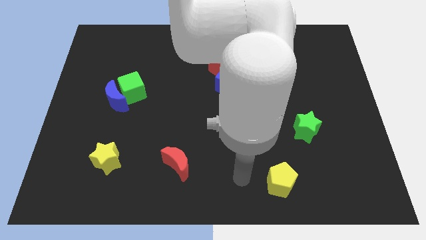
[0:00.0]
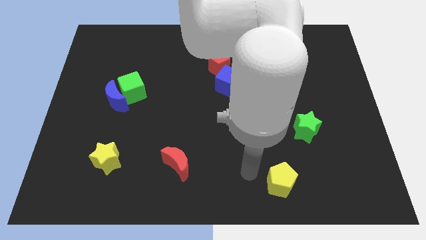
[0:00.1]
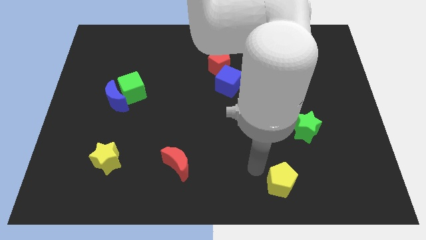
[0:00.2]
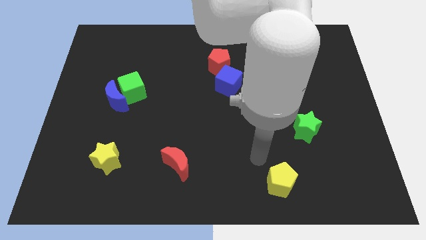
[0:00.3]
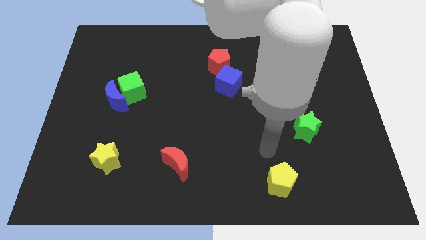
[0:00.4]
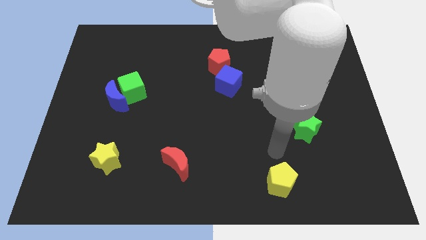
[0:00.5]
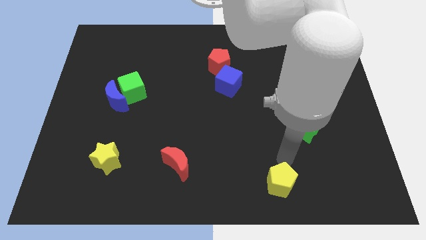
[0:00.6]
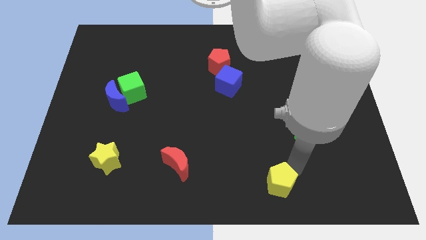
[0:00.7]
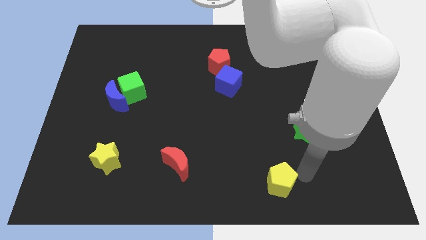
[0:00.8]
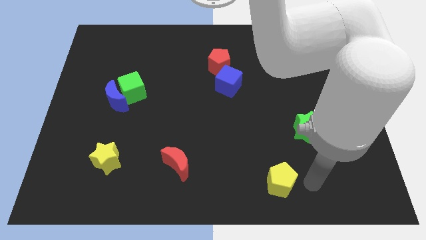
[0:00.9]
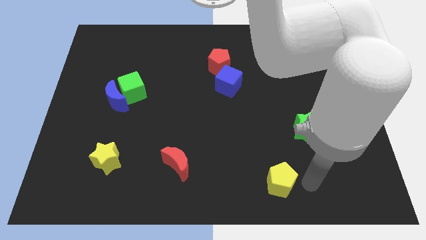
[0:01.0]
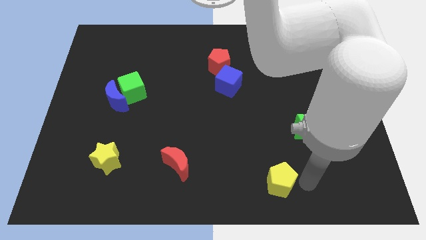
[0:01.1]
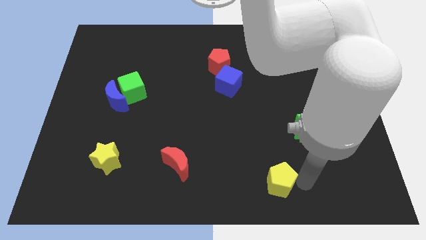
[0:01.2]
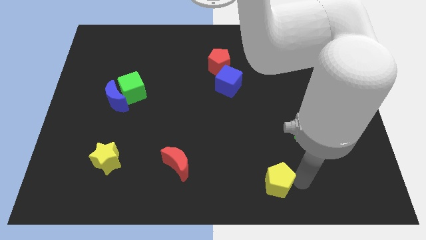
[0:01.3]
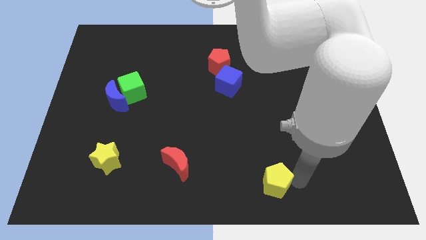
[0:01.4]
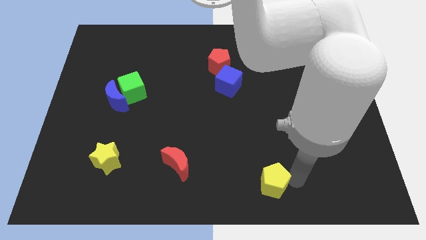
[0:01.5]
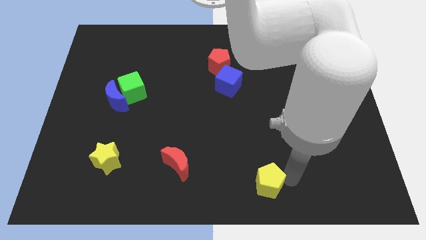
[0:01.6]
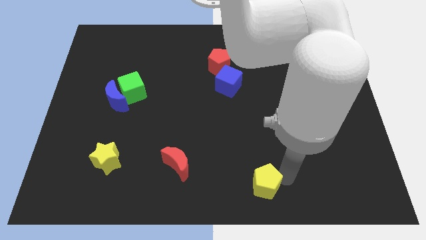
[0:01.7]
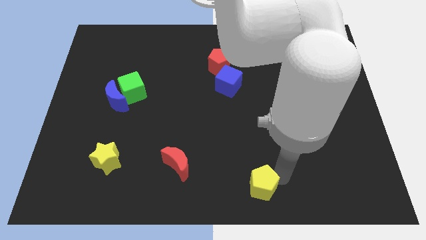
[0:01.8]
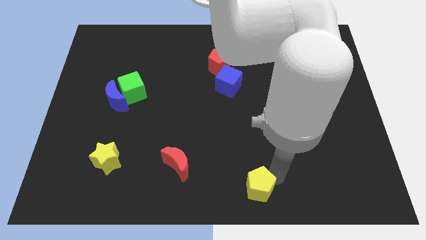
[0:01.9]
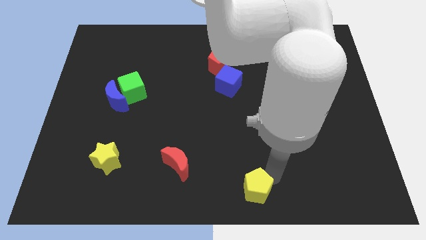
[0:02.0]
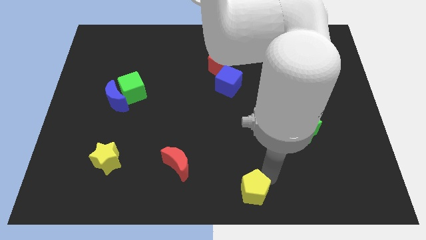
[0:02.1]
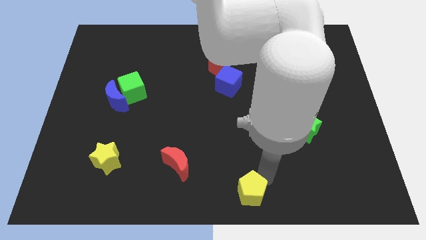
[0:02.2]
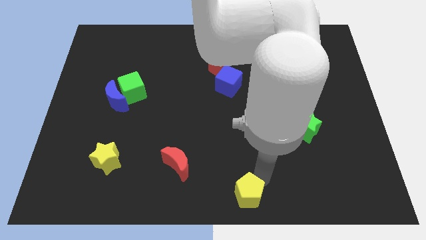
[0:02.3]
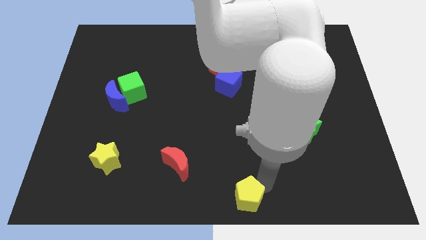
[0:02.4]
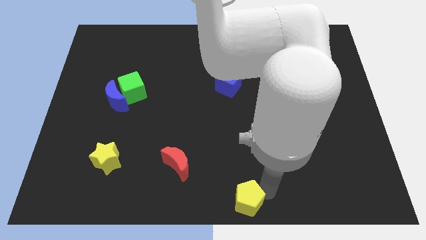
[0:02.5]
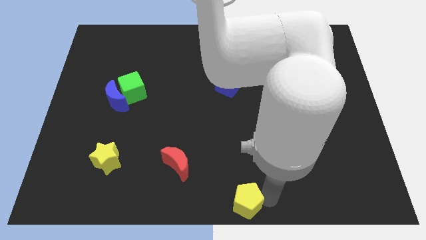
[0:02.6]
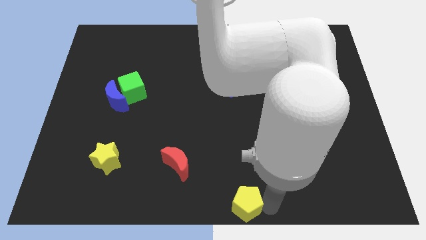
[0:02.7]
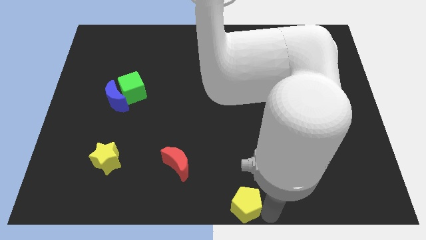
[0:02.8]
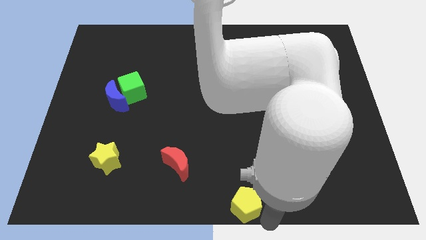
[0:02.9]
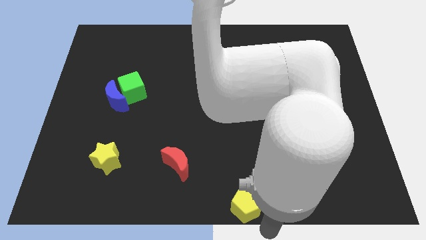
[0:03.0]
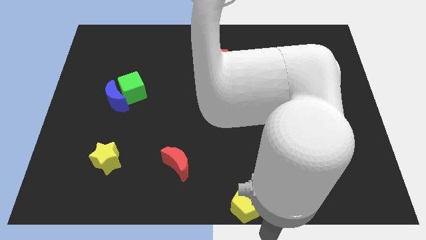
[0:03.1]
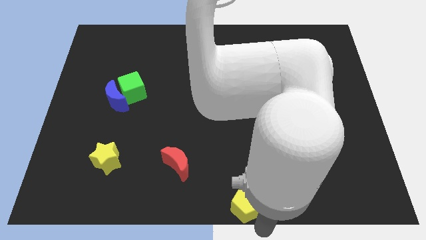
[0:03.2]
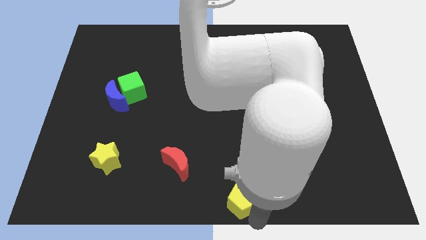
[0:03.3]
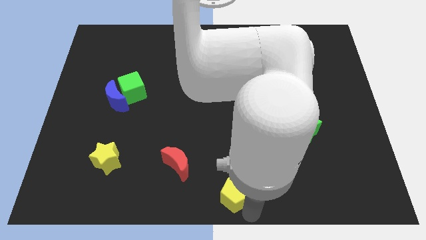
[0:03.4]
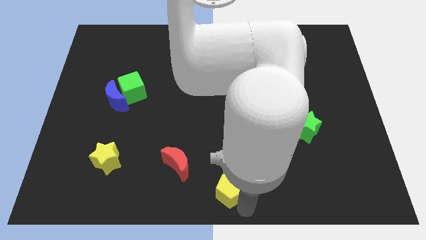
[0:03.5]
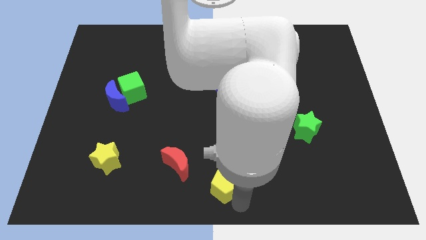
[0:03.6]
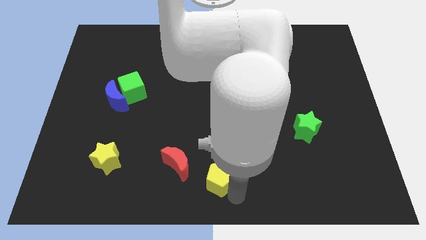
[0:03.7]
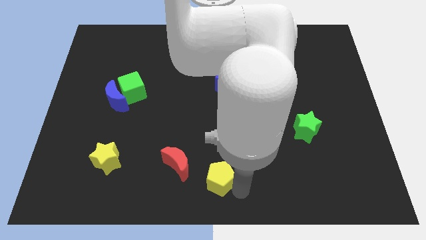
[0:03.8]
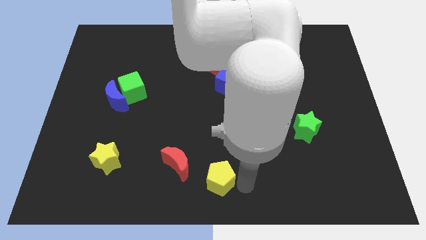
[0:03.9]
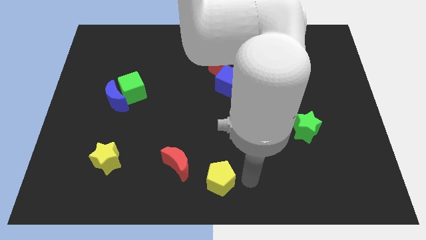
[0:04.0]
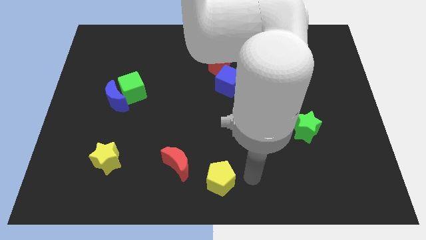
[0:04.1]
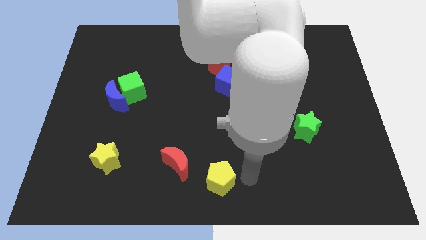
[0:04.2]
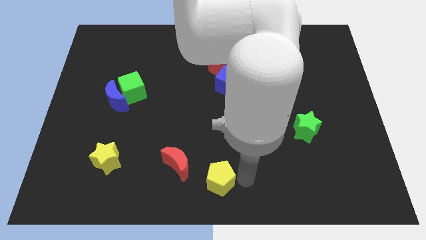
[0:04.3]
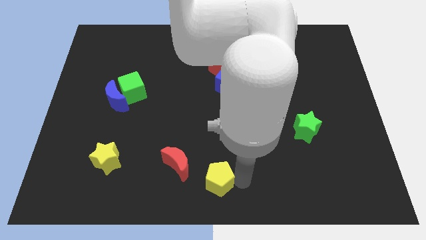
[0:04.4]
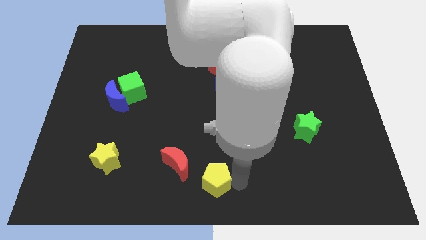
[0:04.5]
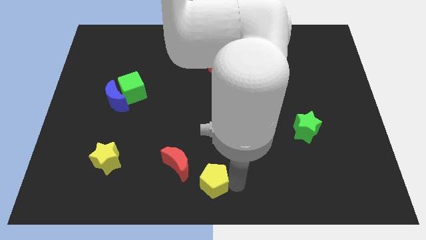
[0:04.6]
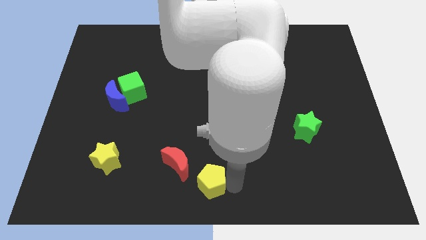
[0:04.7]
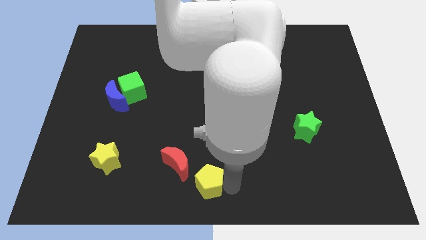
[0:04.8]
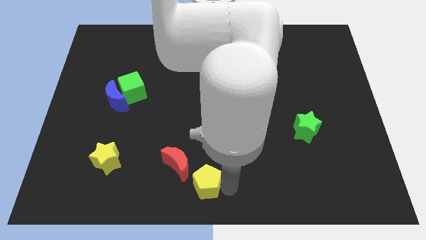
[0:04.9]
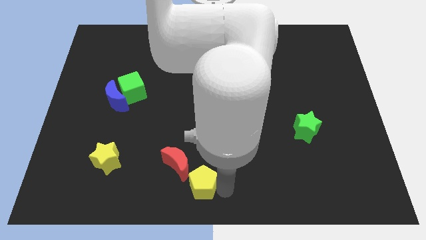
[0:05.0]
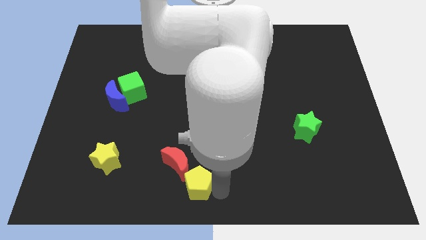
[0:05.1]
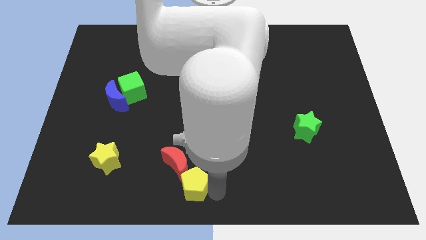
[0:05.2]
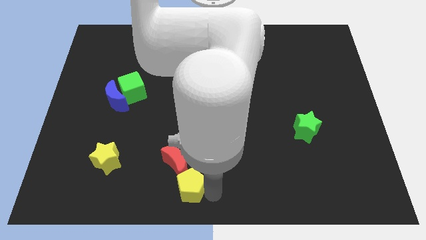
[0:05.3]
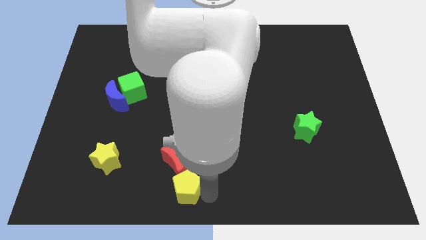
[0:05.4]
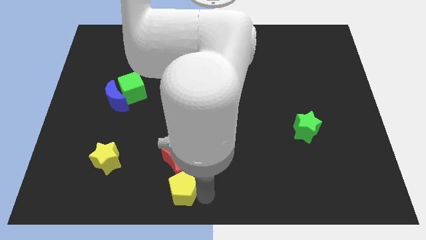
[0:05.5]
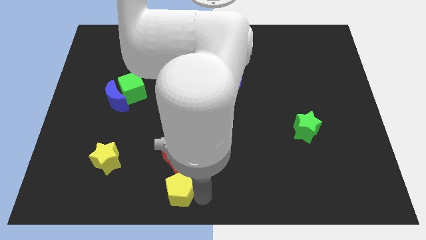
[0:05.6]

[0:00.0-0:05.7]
slide the yellow pentagon to the left

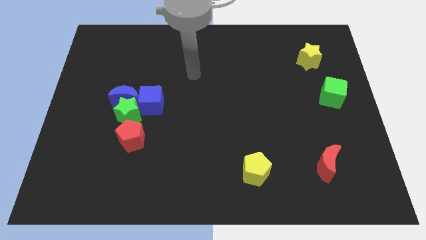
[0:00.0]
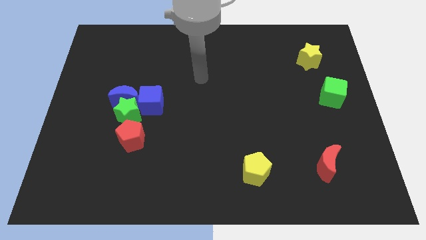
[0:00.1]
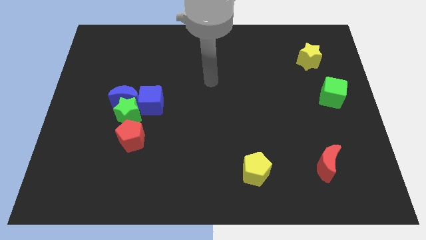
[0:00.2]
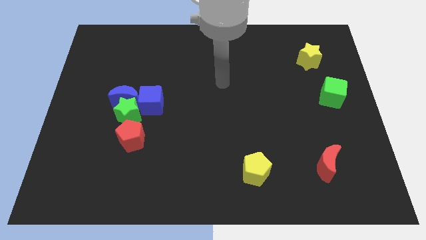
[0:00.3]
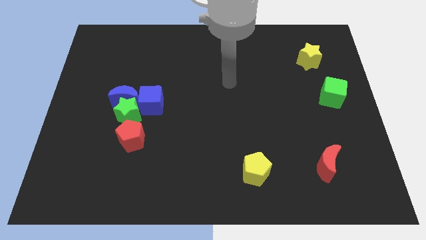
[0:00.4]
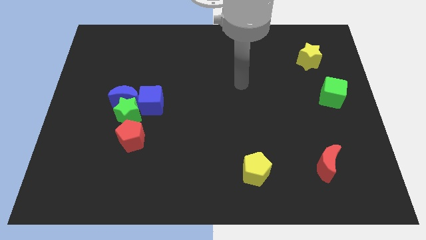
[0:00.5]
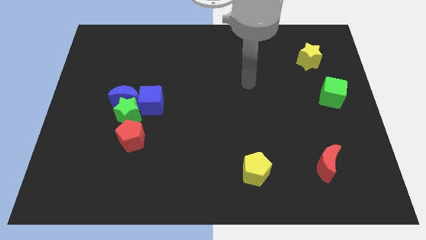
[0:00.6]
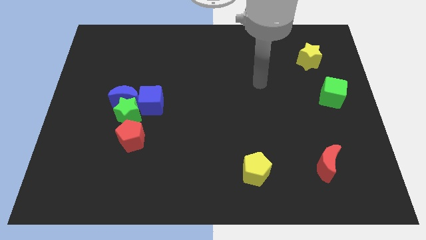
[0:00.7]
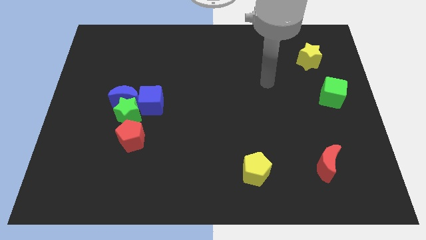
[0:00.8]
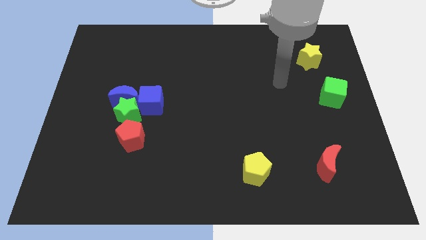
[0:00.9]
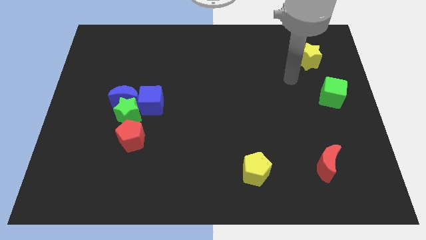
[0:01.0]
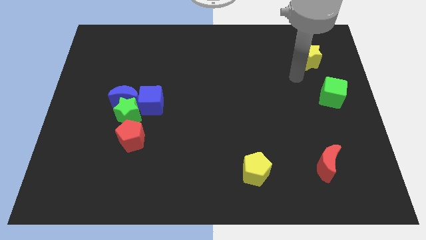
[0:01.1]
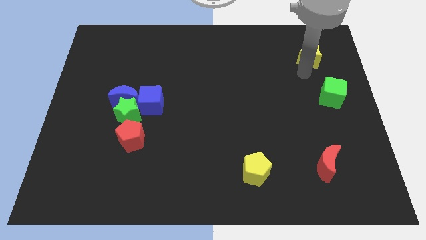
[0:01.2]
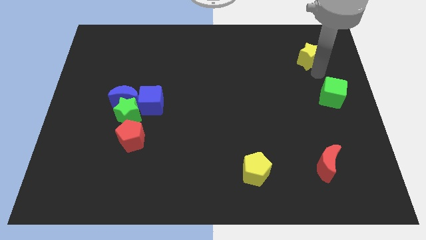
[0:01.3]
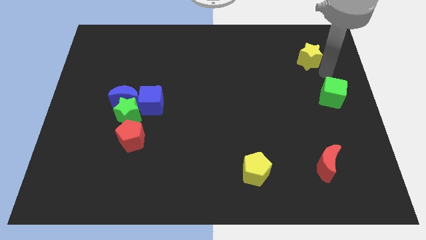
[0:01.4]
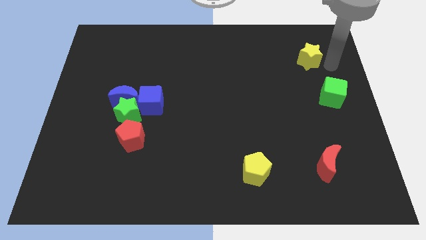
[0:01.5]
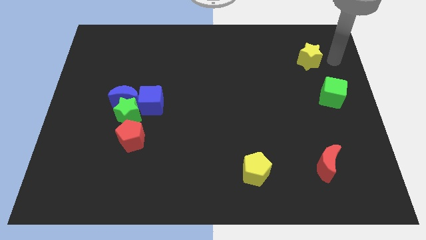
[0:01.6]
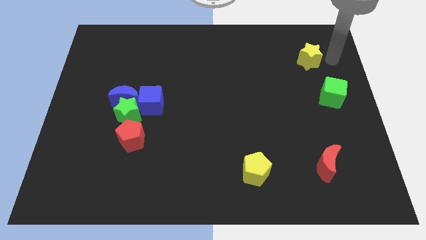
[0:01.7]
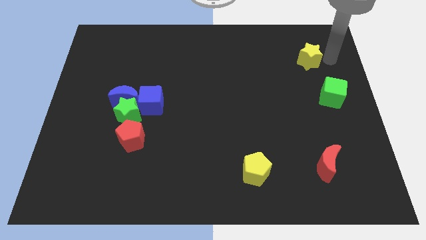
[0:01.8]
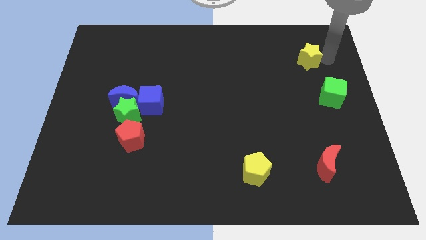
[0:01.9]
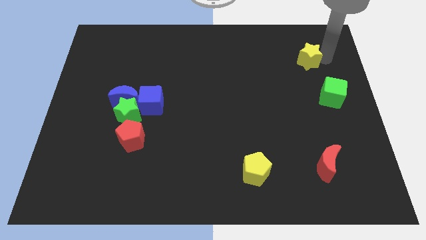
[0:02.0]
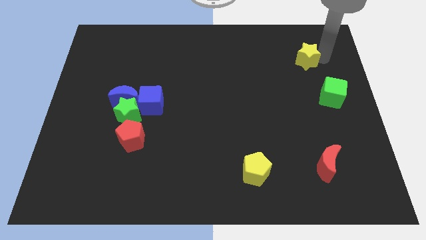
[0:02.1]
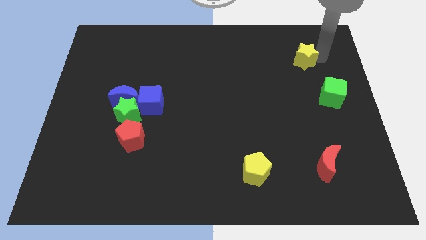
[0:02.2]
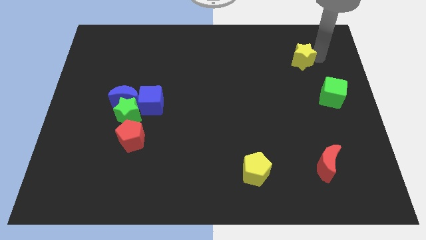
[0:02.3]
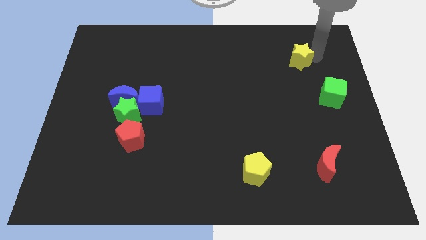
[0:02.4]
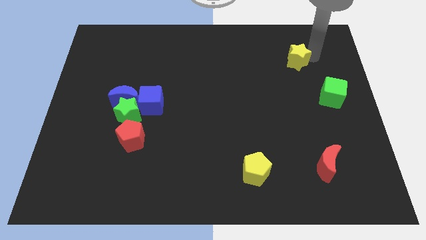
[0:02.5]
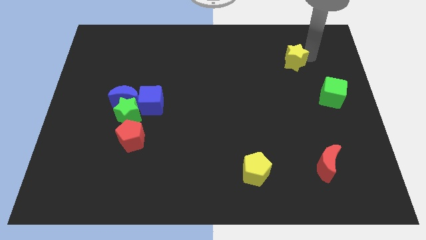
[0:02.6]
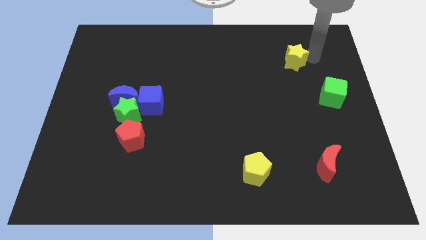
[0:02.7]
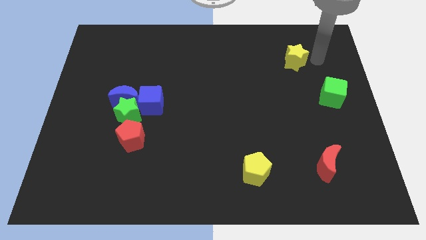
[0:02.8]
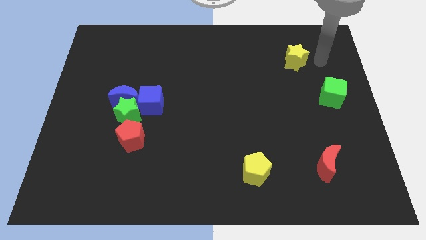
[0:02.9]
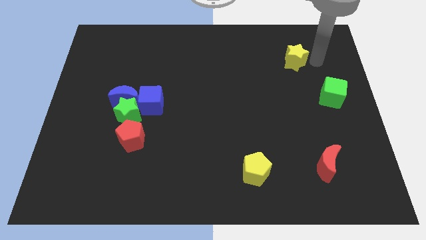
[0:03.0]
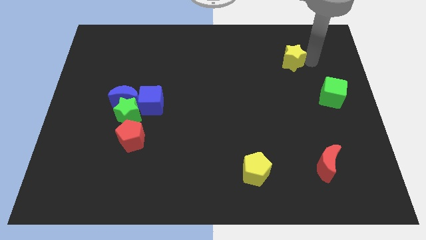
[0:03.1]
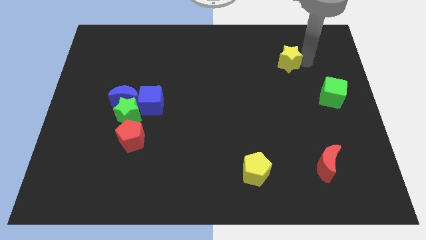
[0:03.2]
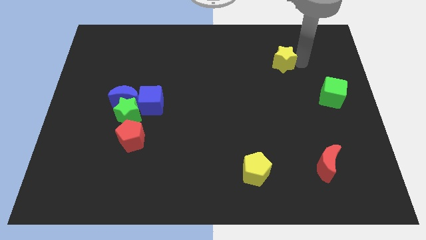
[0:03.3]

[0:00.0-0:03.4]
move the yellow star left slightly
